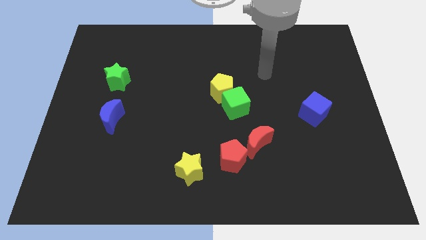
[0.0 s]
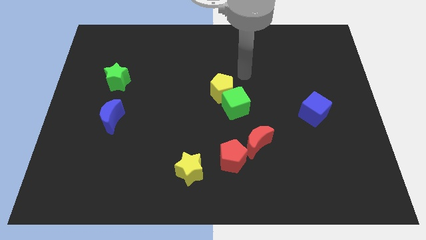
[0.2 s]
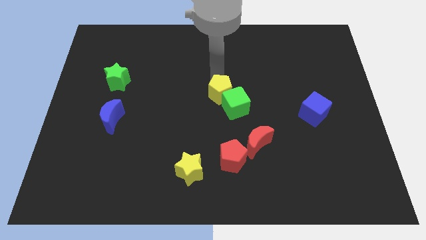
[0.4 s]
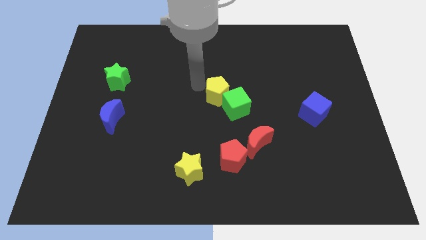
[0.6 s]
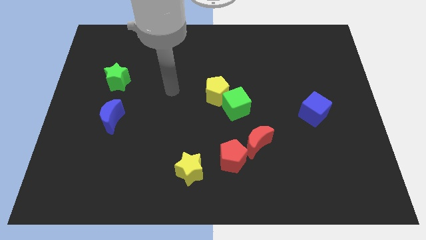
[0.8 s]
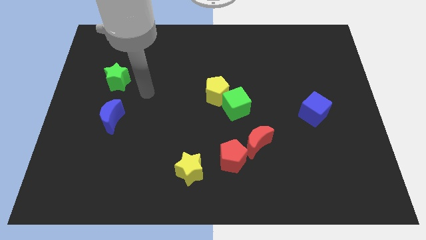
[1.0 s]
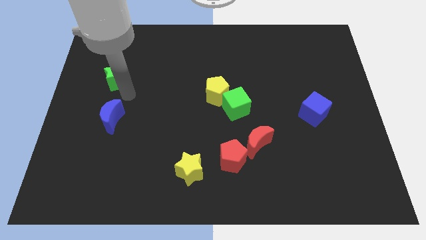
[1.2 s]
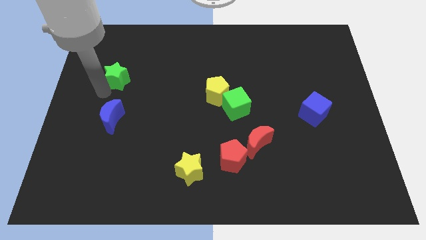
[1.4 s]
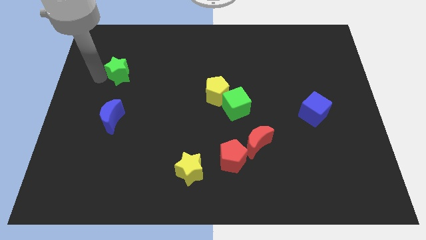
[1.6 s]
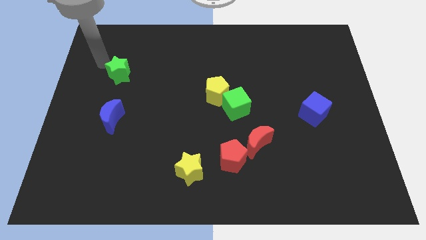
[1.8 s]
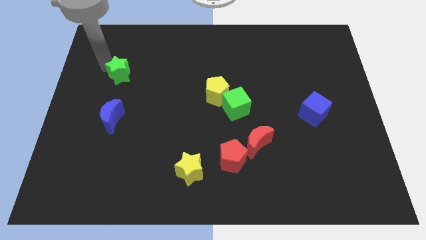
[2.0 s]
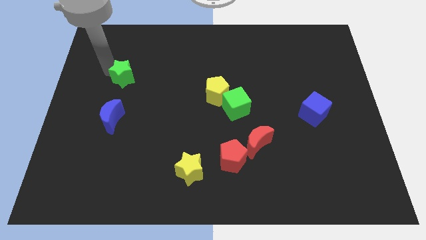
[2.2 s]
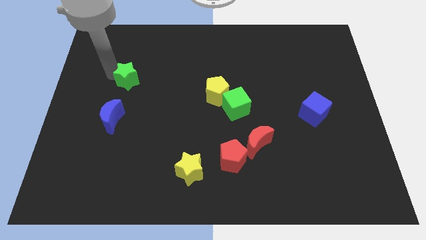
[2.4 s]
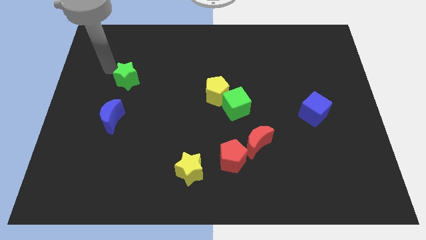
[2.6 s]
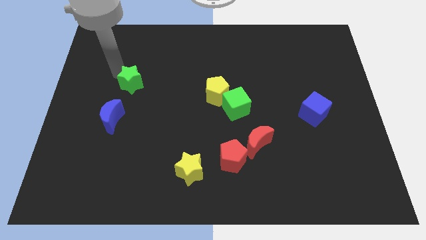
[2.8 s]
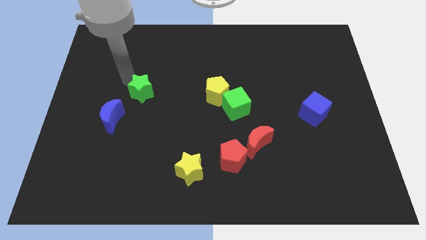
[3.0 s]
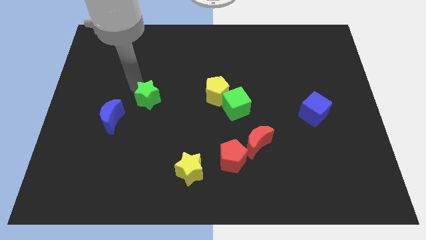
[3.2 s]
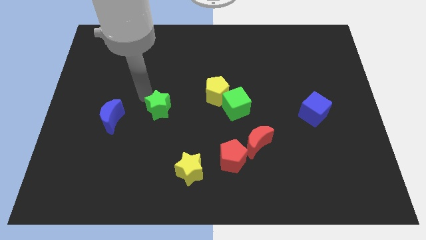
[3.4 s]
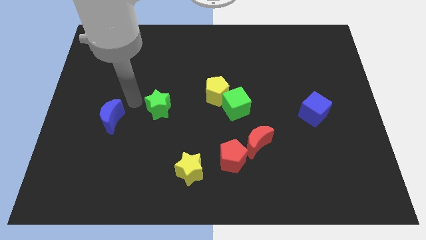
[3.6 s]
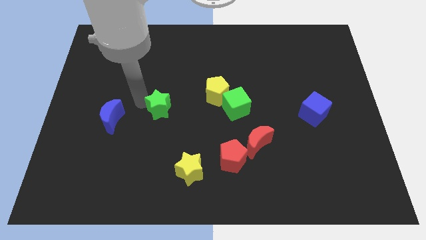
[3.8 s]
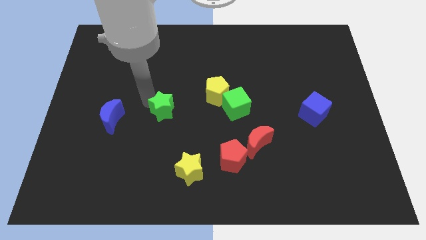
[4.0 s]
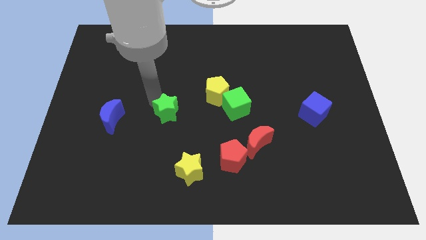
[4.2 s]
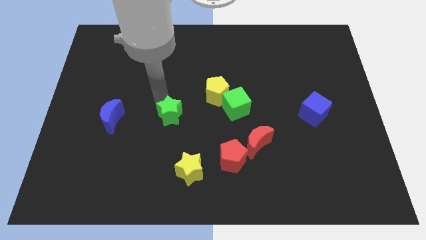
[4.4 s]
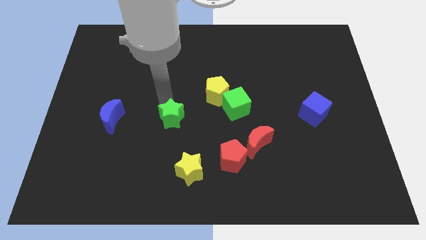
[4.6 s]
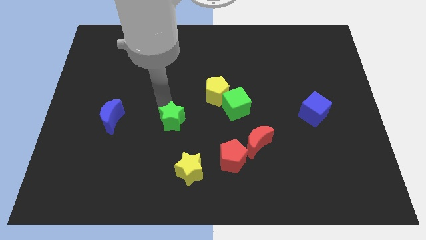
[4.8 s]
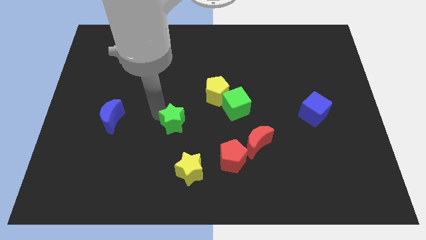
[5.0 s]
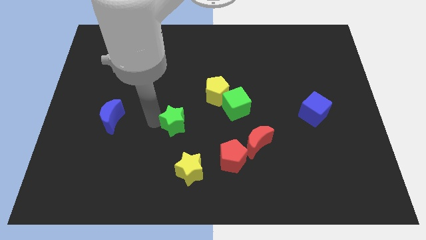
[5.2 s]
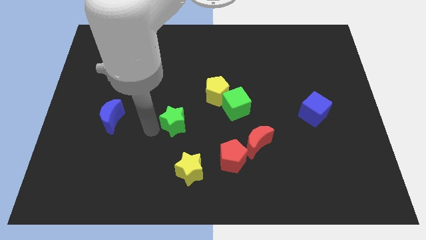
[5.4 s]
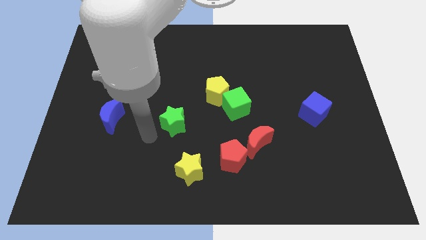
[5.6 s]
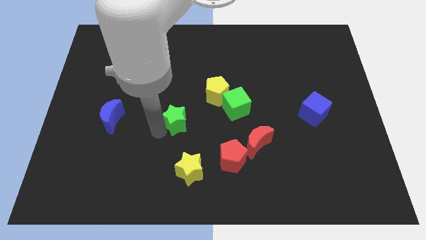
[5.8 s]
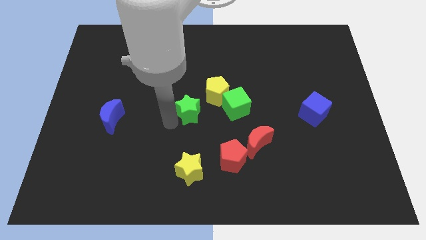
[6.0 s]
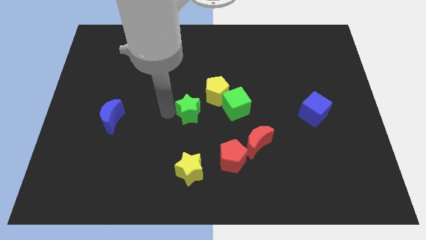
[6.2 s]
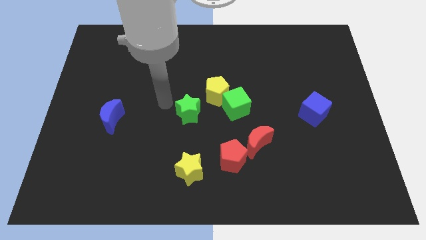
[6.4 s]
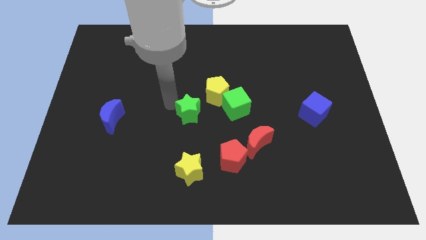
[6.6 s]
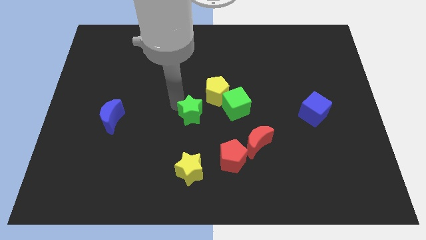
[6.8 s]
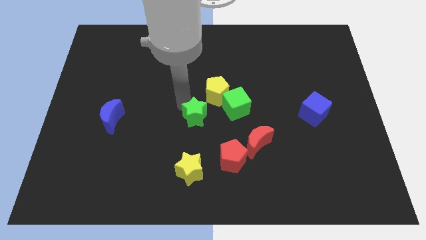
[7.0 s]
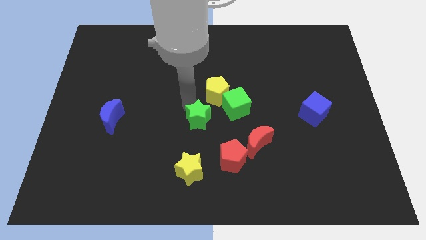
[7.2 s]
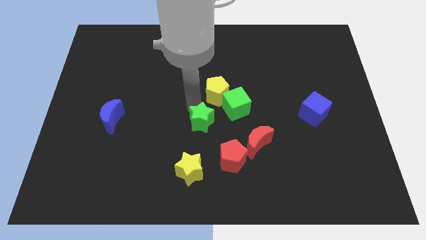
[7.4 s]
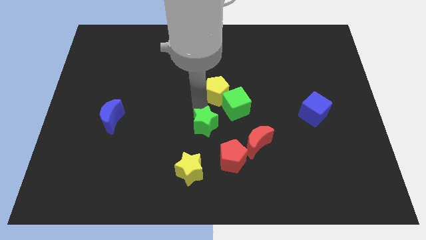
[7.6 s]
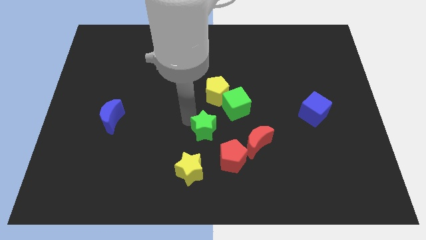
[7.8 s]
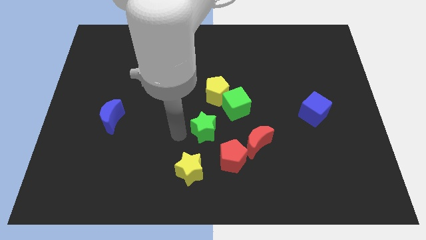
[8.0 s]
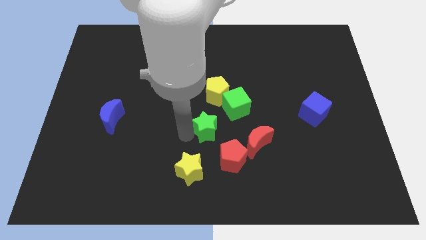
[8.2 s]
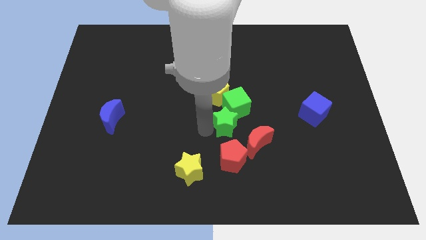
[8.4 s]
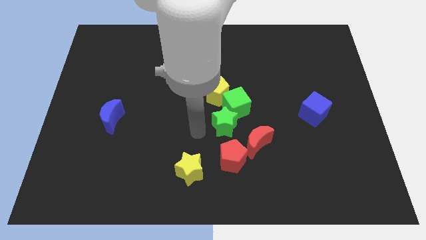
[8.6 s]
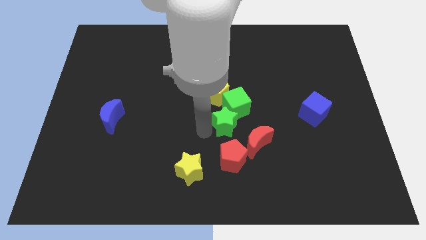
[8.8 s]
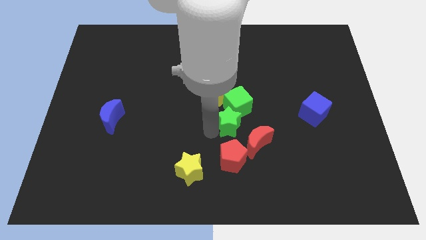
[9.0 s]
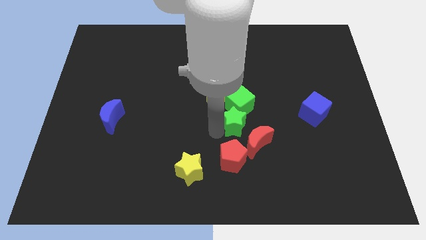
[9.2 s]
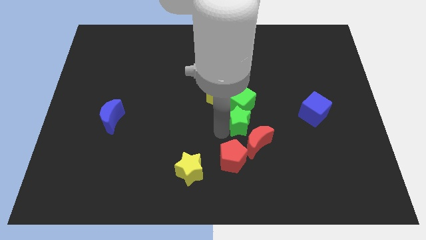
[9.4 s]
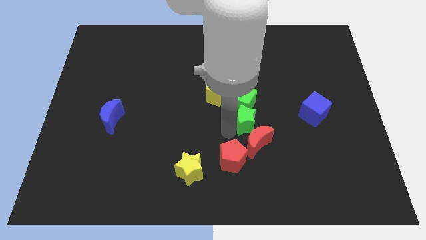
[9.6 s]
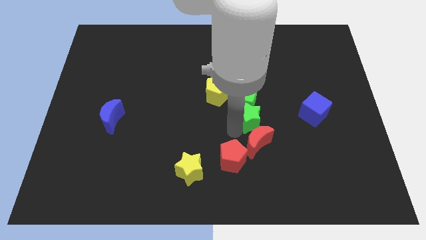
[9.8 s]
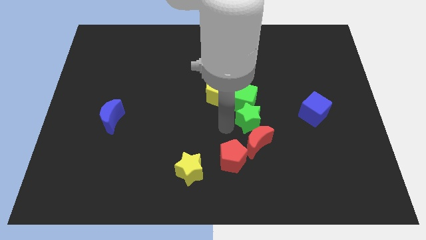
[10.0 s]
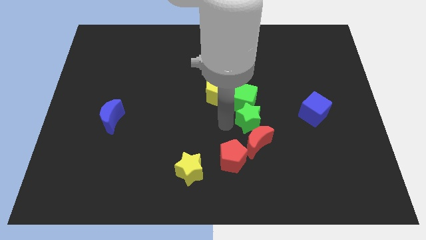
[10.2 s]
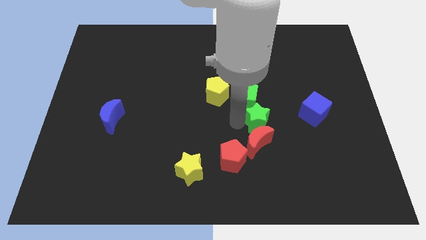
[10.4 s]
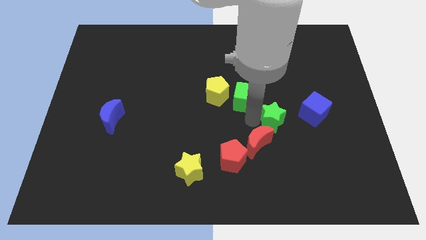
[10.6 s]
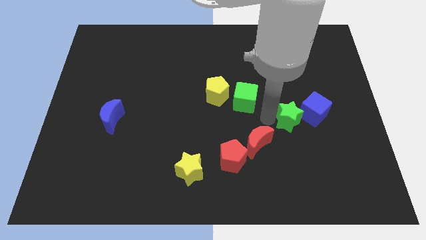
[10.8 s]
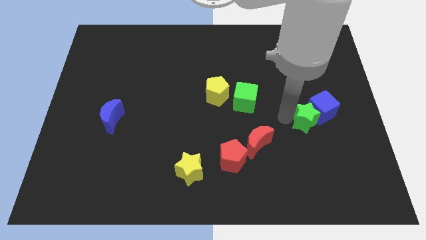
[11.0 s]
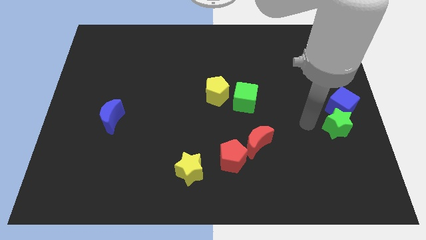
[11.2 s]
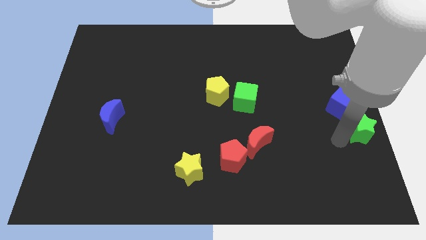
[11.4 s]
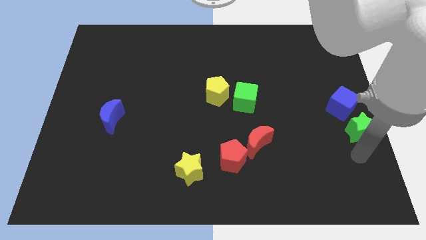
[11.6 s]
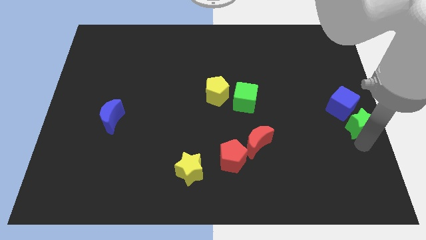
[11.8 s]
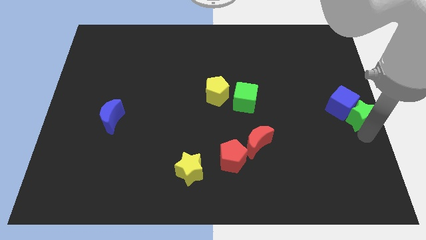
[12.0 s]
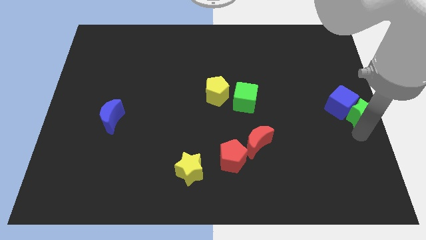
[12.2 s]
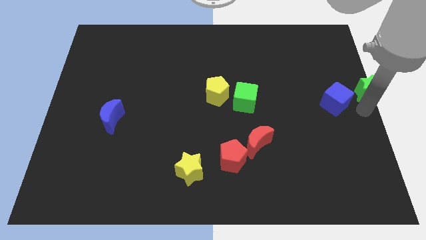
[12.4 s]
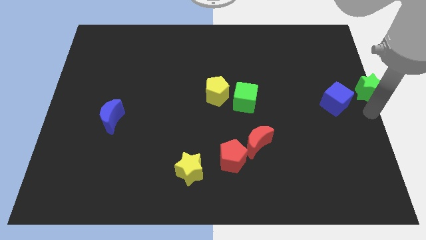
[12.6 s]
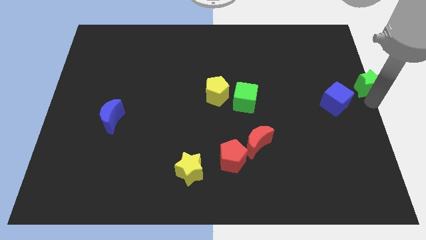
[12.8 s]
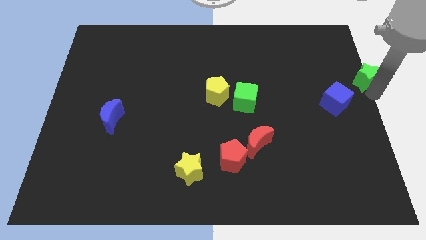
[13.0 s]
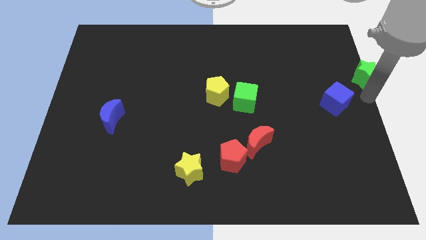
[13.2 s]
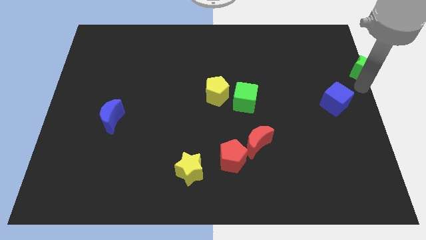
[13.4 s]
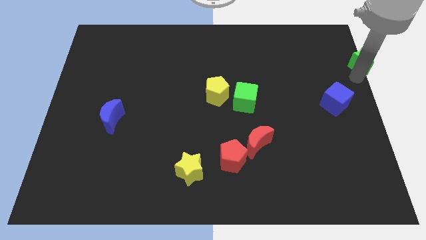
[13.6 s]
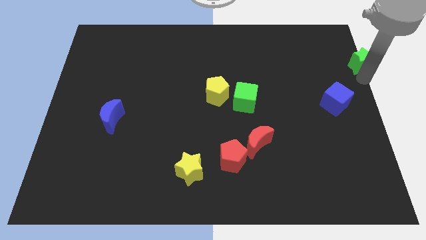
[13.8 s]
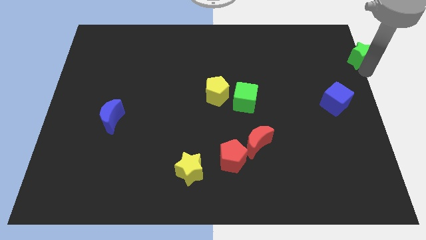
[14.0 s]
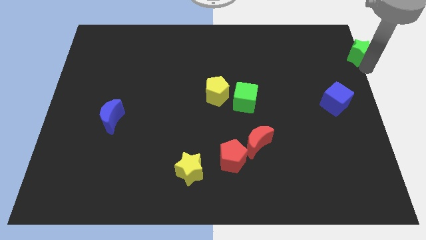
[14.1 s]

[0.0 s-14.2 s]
put the green star to the top right
